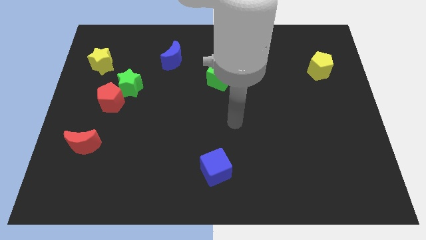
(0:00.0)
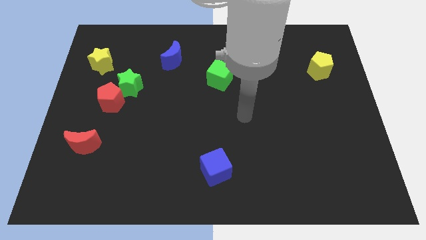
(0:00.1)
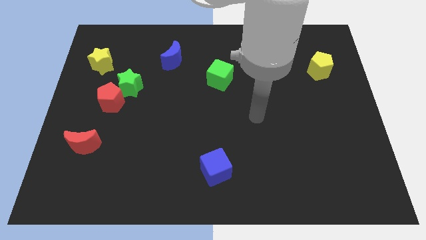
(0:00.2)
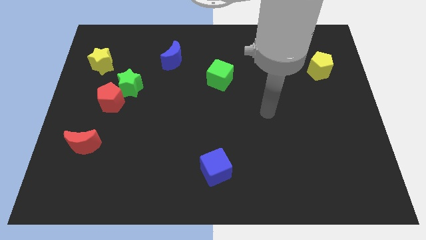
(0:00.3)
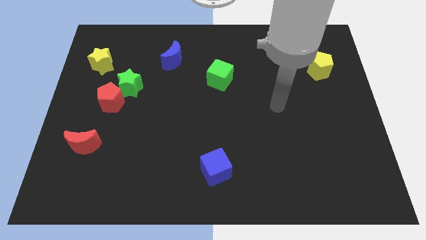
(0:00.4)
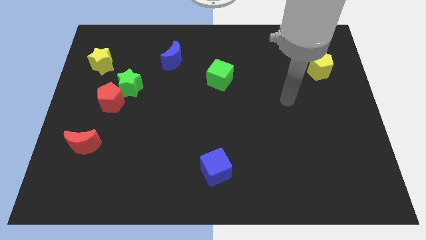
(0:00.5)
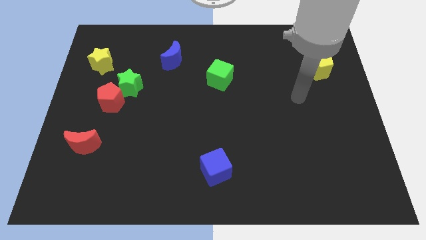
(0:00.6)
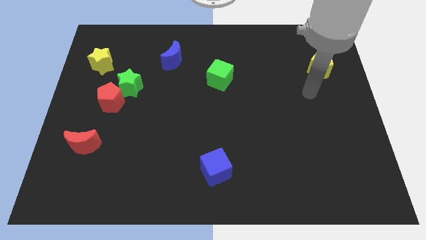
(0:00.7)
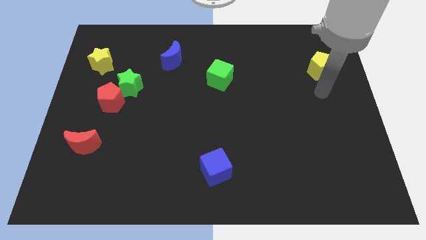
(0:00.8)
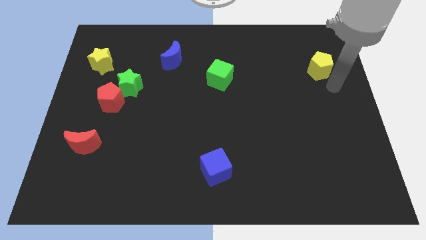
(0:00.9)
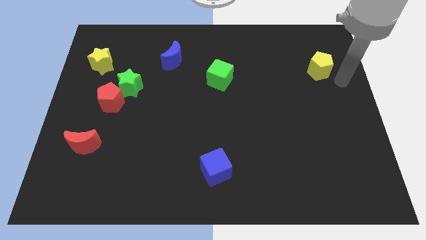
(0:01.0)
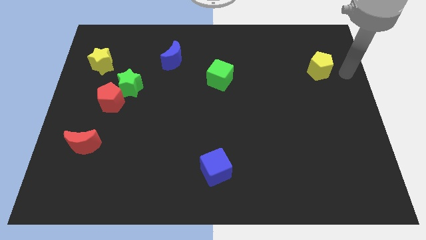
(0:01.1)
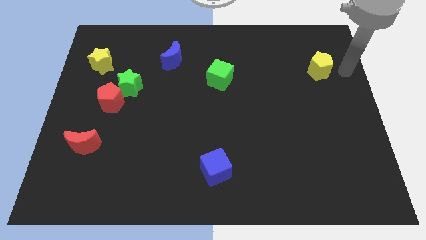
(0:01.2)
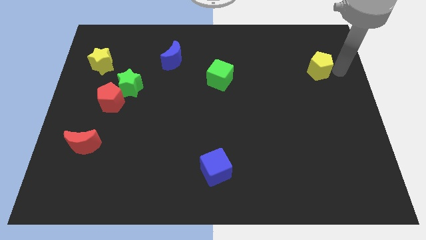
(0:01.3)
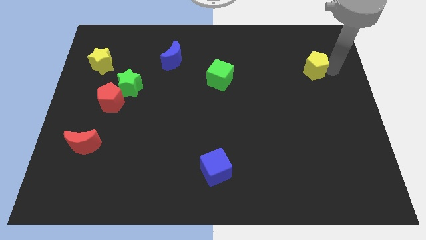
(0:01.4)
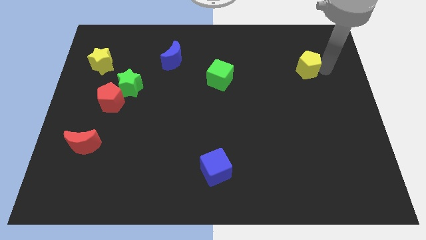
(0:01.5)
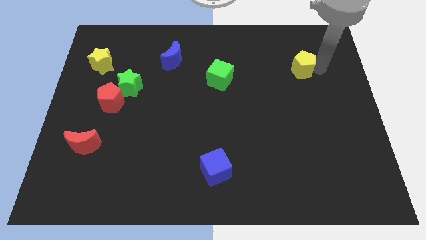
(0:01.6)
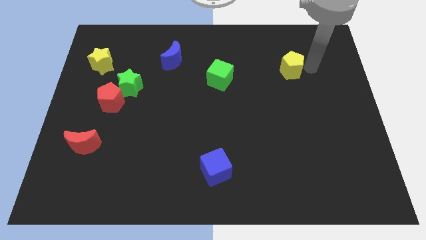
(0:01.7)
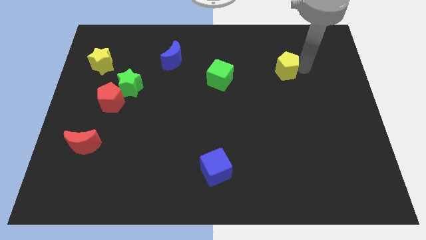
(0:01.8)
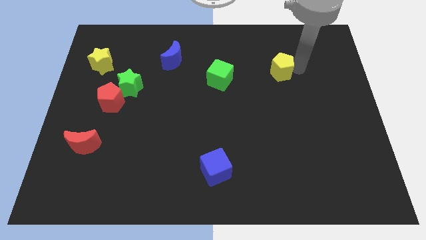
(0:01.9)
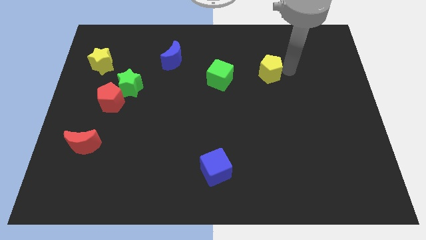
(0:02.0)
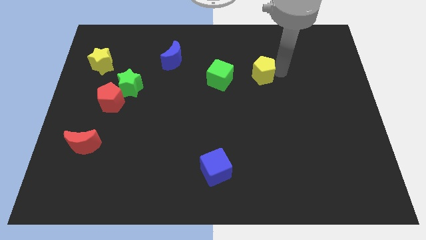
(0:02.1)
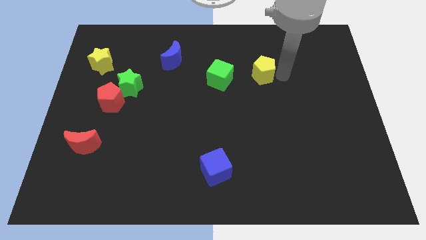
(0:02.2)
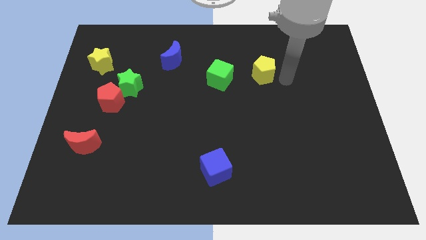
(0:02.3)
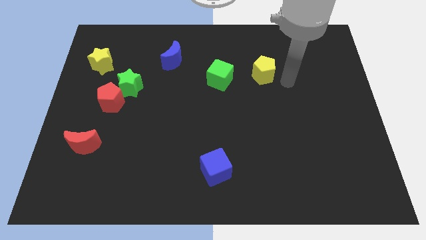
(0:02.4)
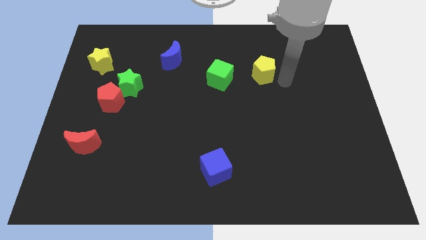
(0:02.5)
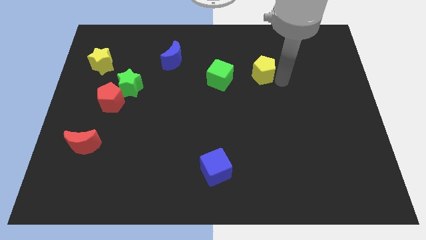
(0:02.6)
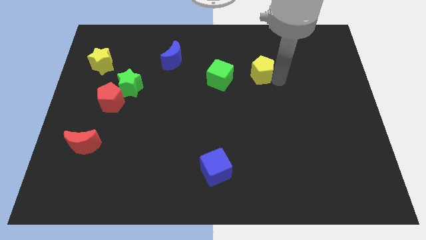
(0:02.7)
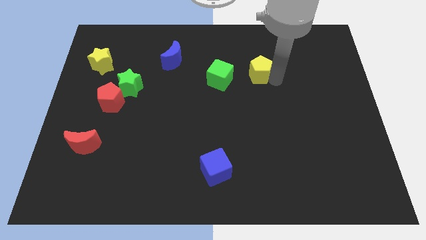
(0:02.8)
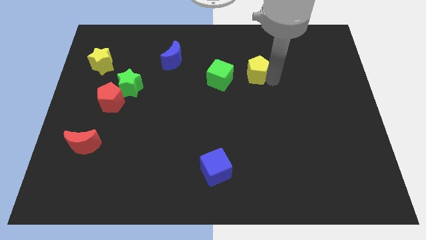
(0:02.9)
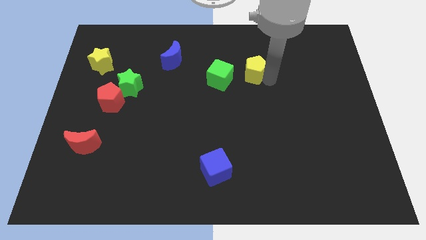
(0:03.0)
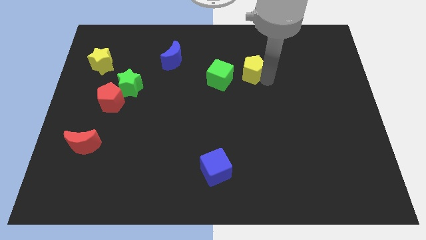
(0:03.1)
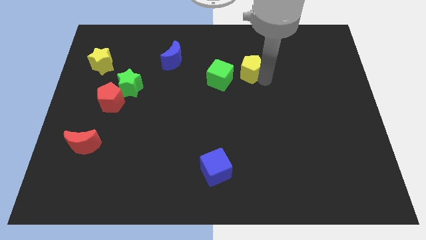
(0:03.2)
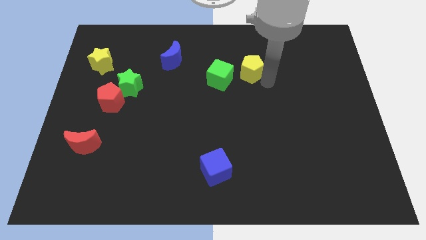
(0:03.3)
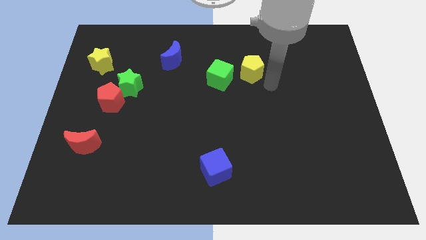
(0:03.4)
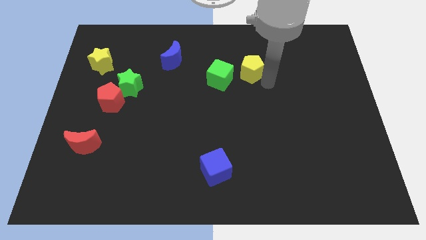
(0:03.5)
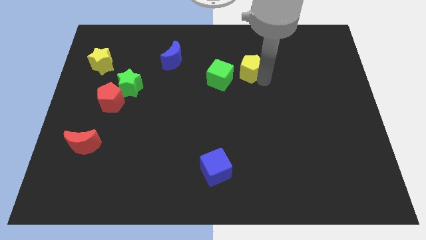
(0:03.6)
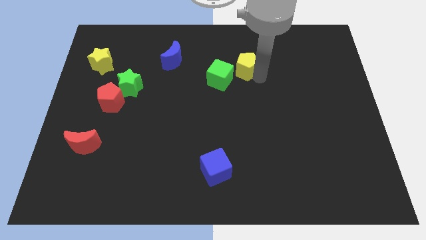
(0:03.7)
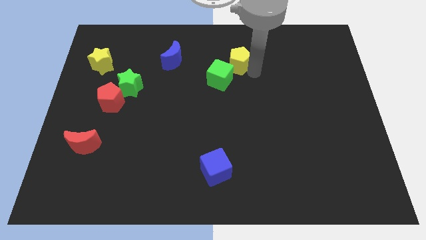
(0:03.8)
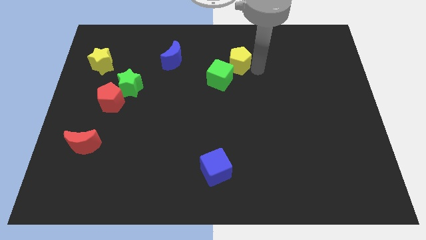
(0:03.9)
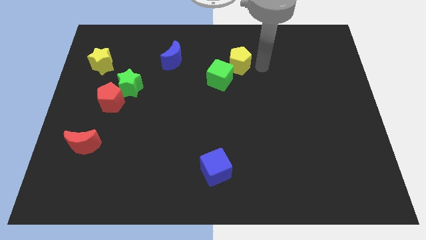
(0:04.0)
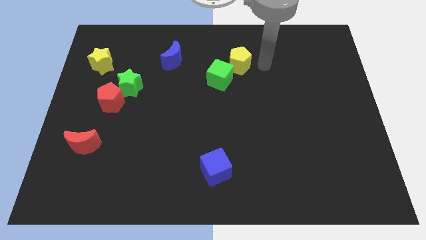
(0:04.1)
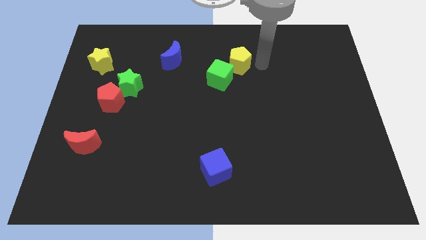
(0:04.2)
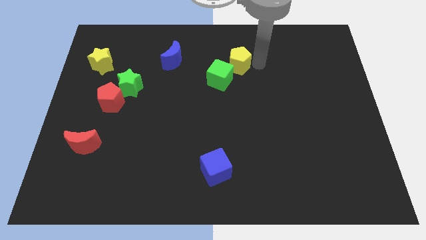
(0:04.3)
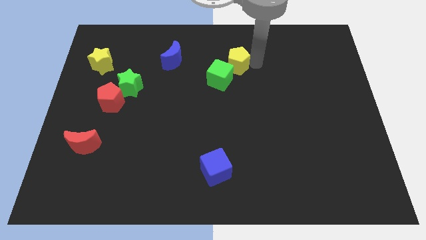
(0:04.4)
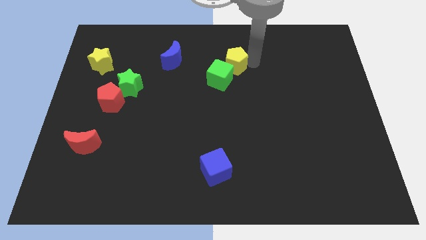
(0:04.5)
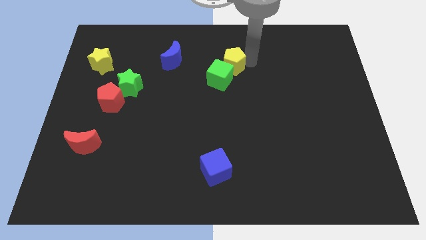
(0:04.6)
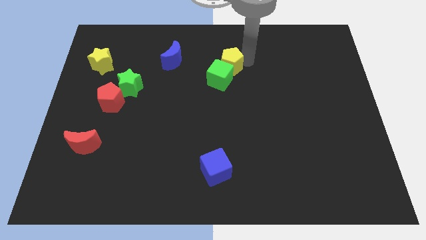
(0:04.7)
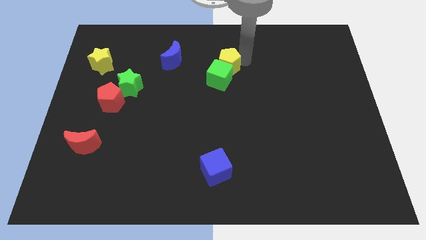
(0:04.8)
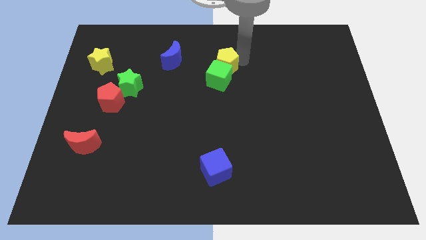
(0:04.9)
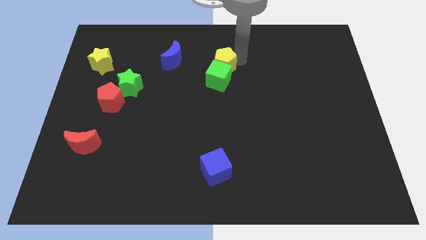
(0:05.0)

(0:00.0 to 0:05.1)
push the yellow pentagon to the top left of the green cube

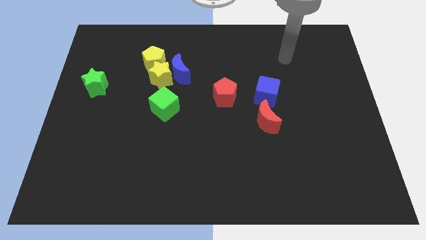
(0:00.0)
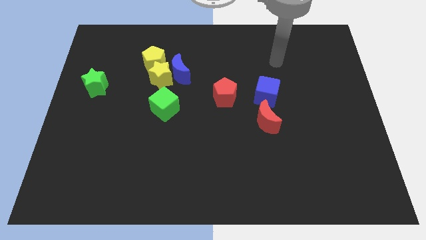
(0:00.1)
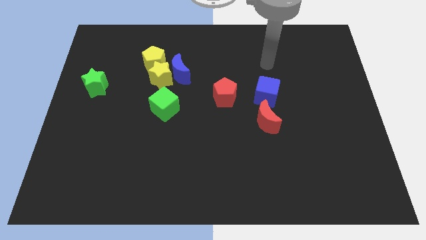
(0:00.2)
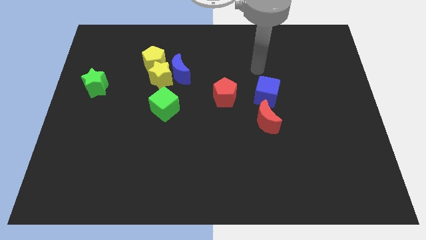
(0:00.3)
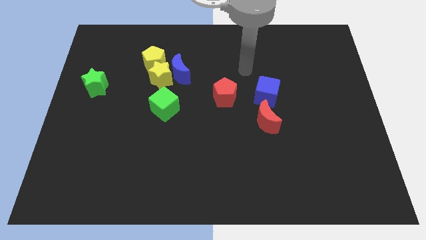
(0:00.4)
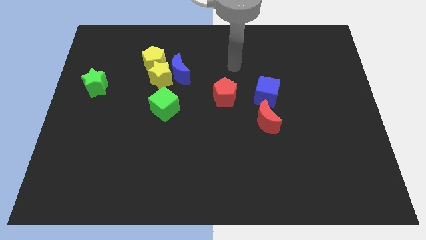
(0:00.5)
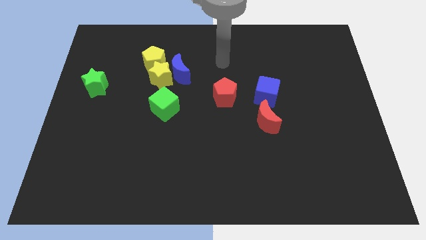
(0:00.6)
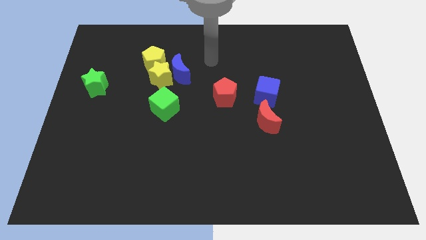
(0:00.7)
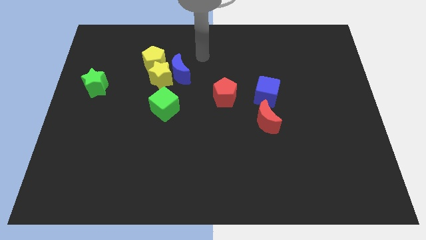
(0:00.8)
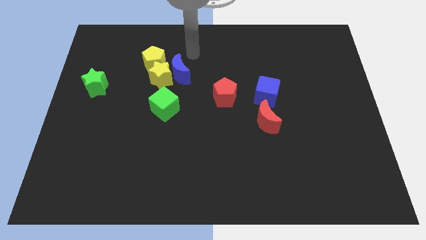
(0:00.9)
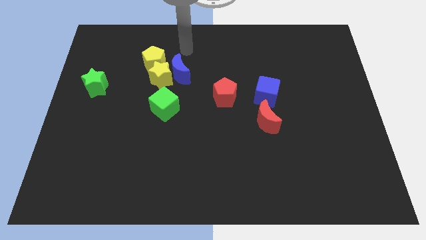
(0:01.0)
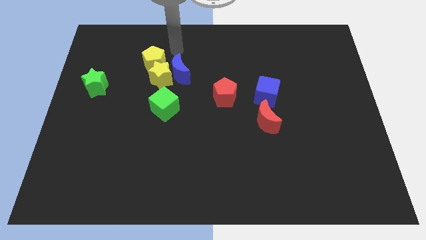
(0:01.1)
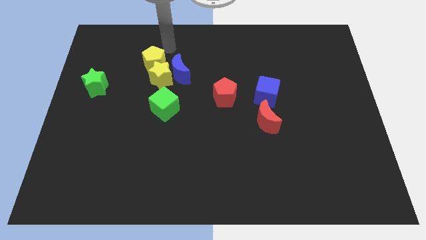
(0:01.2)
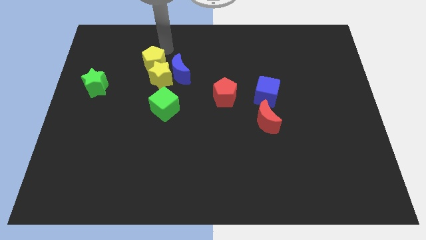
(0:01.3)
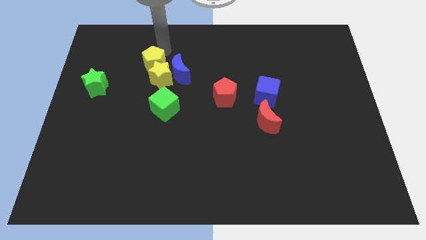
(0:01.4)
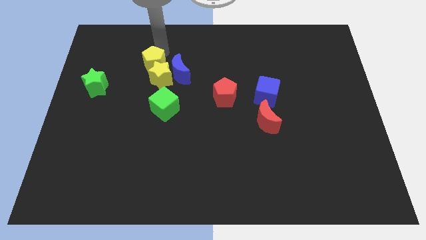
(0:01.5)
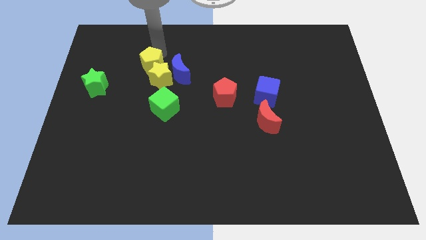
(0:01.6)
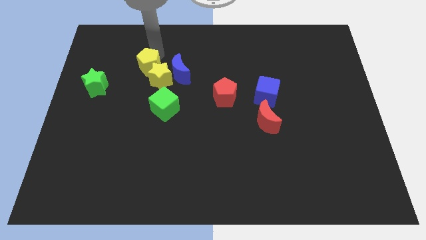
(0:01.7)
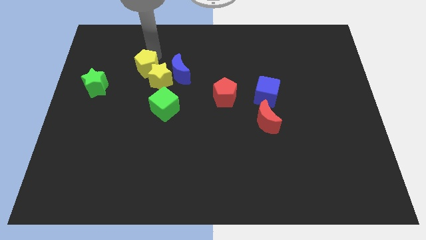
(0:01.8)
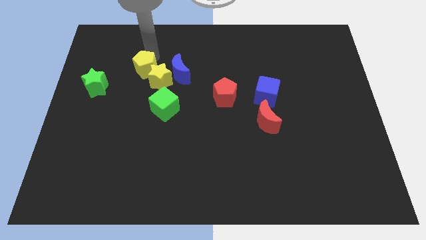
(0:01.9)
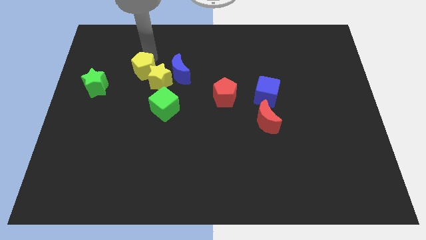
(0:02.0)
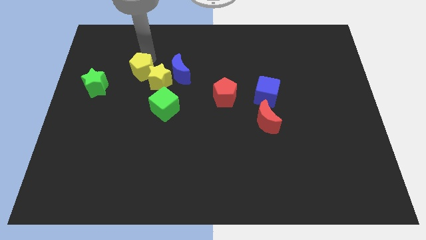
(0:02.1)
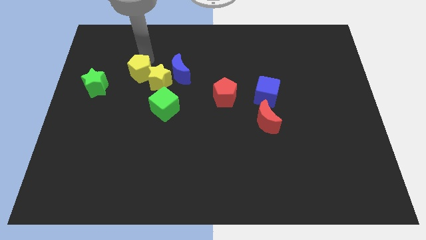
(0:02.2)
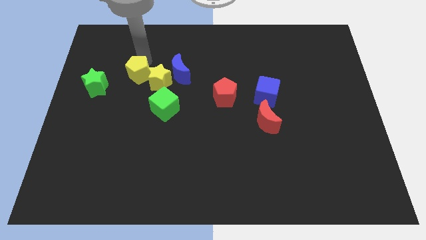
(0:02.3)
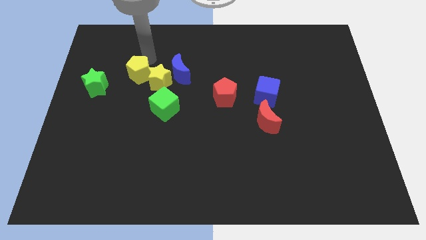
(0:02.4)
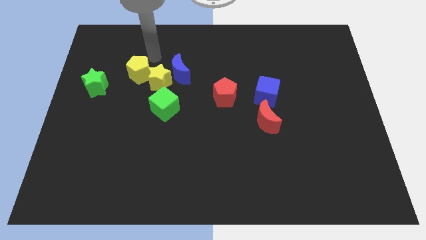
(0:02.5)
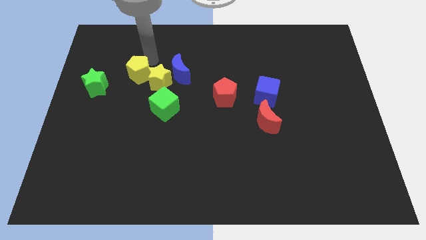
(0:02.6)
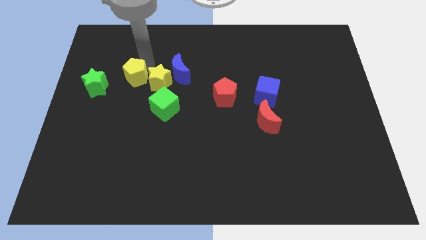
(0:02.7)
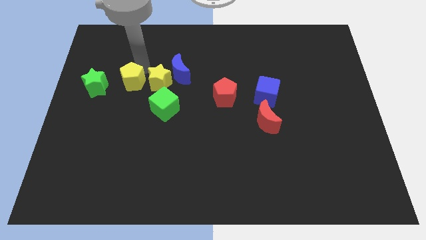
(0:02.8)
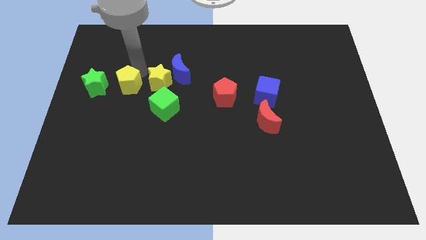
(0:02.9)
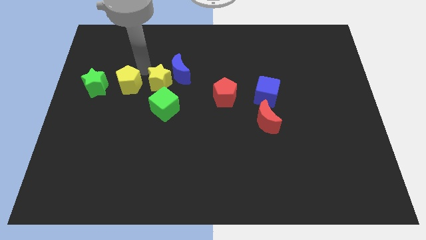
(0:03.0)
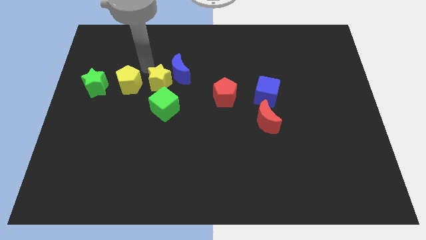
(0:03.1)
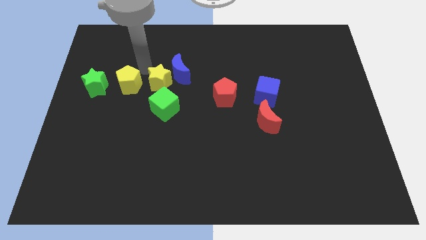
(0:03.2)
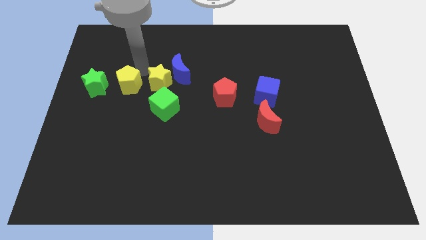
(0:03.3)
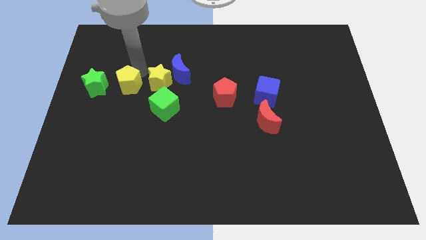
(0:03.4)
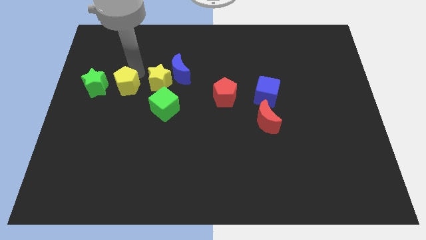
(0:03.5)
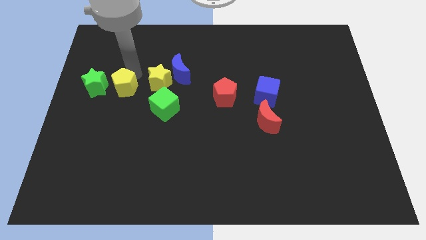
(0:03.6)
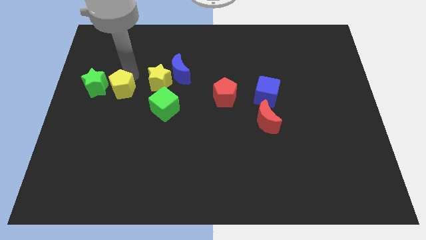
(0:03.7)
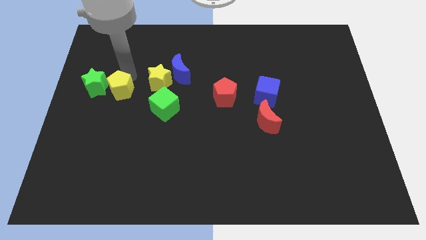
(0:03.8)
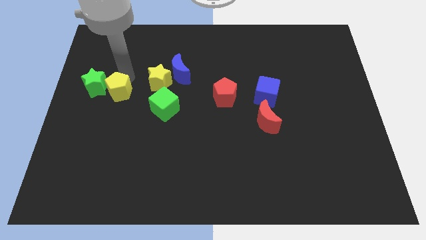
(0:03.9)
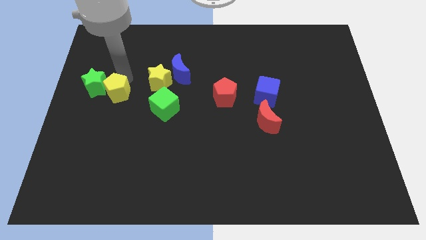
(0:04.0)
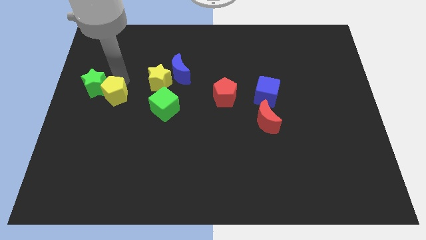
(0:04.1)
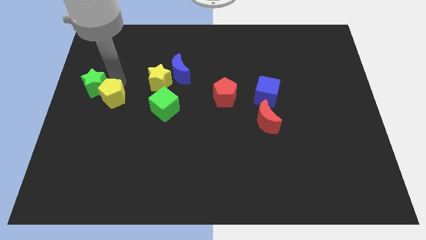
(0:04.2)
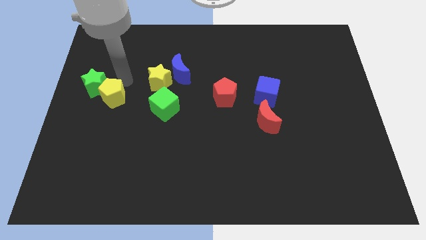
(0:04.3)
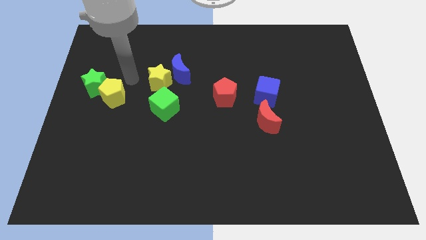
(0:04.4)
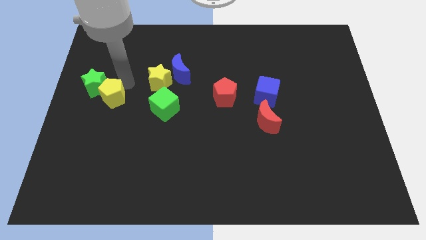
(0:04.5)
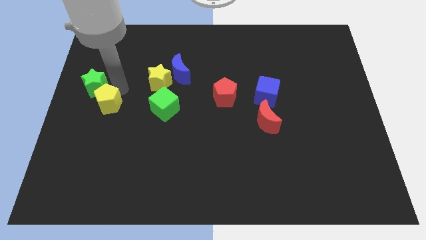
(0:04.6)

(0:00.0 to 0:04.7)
slide the yellow pentagon to the bottom of the green star
